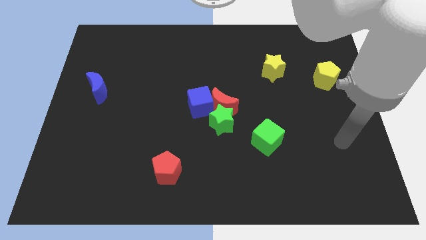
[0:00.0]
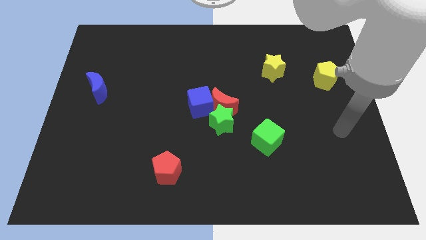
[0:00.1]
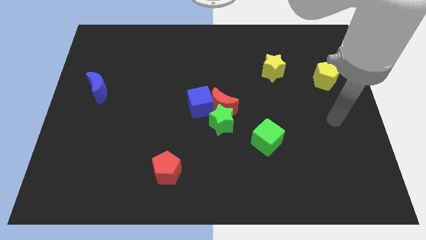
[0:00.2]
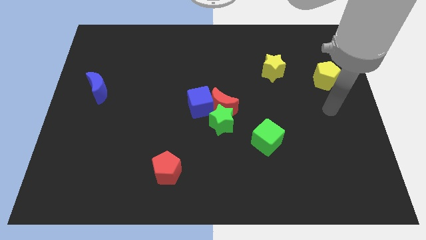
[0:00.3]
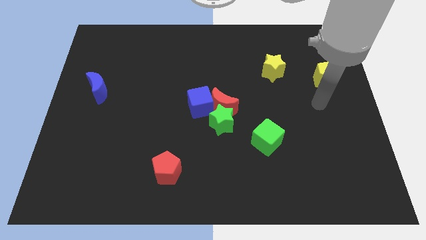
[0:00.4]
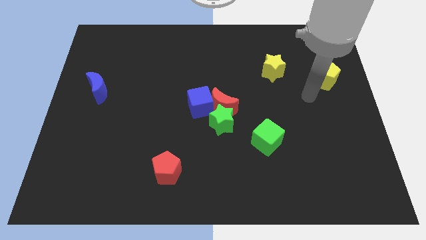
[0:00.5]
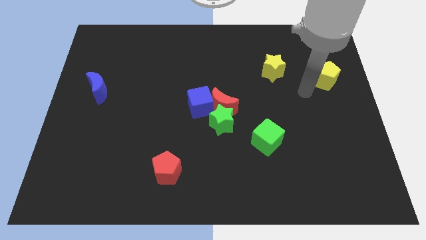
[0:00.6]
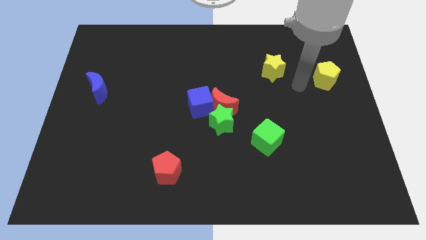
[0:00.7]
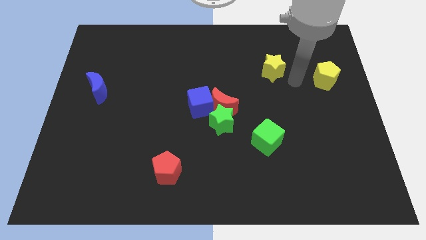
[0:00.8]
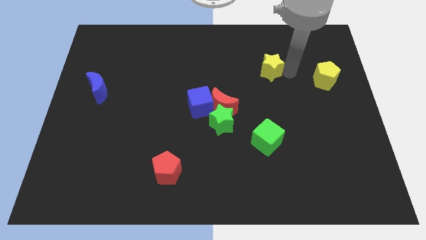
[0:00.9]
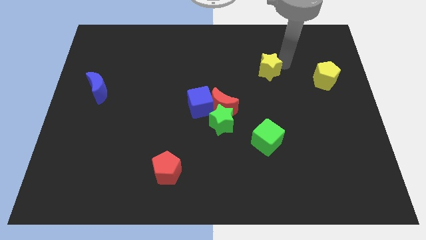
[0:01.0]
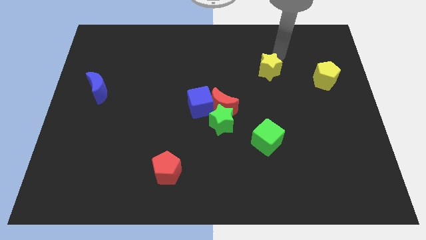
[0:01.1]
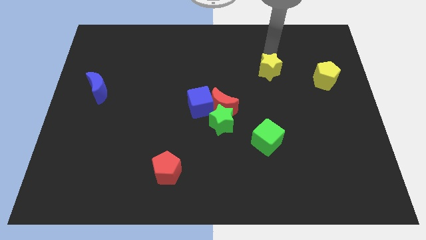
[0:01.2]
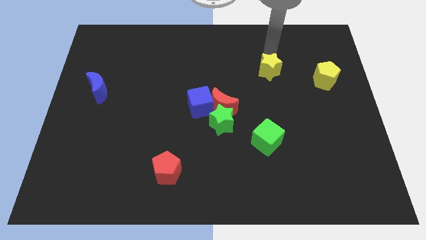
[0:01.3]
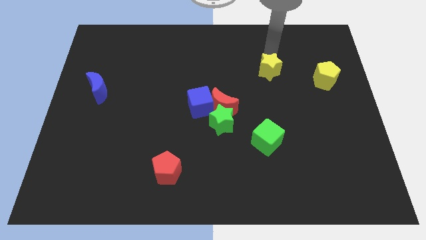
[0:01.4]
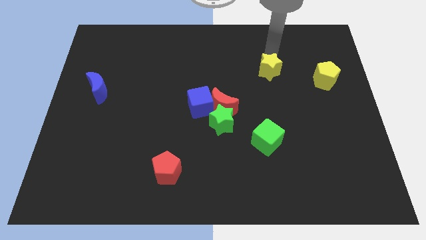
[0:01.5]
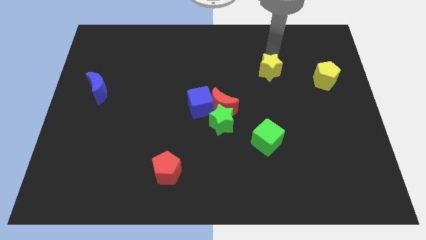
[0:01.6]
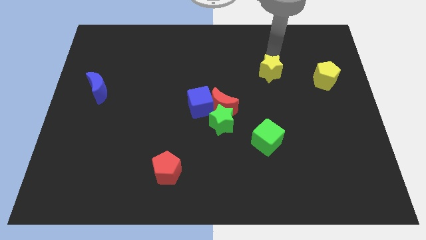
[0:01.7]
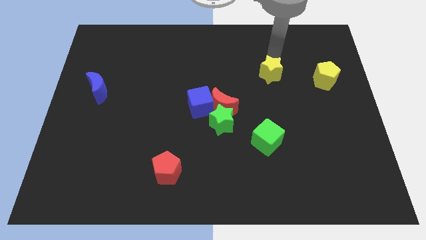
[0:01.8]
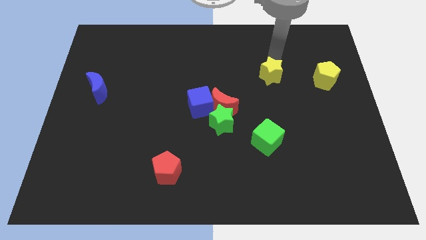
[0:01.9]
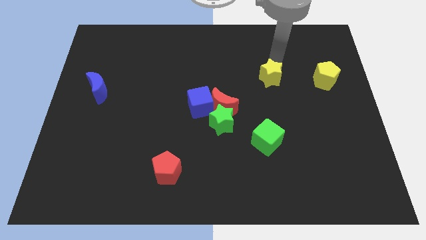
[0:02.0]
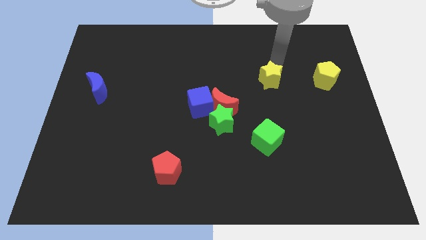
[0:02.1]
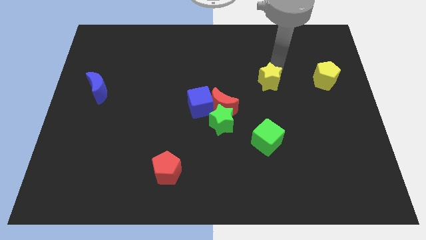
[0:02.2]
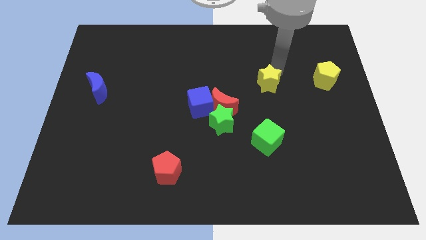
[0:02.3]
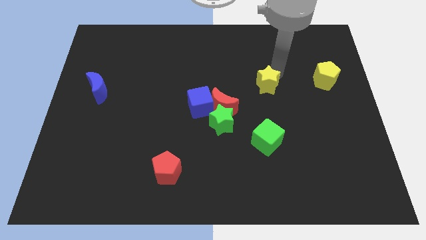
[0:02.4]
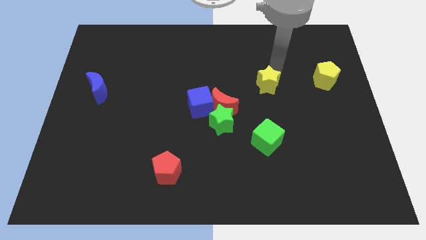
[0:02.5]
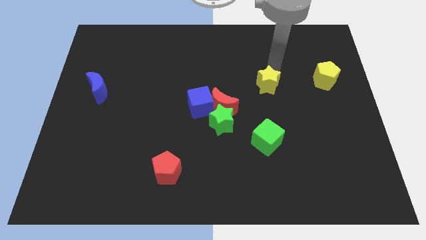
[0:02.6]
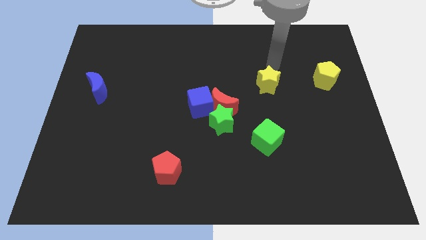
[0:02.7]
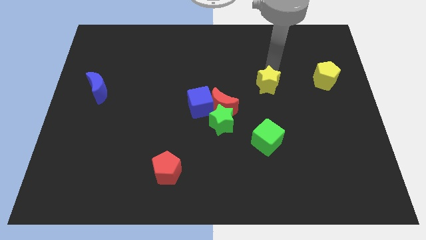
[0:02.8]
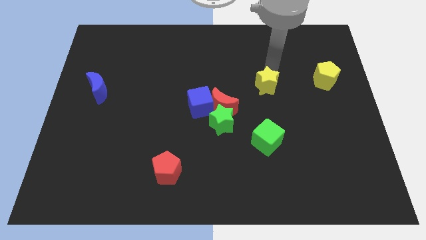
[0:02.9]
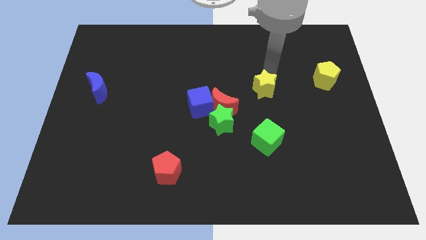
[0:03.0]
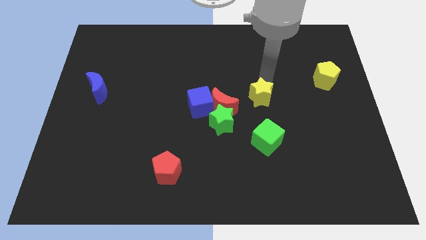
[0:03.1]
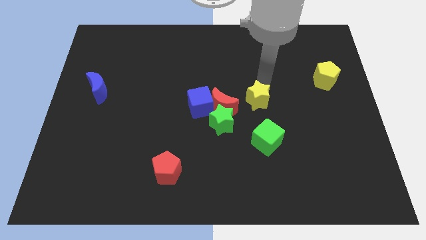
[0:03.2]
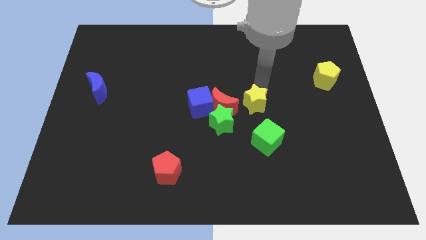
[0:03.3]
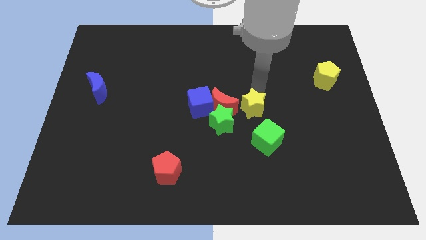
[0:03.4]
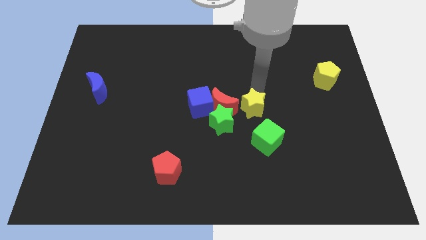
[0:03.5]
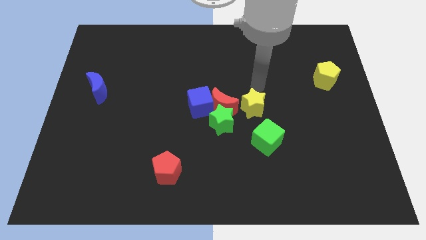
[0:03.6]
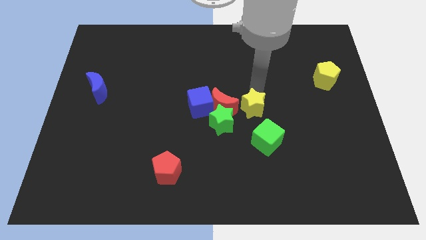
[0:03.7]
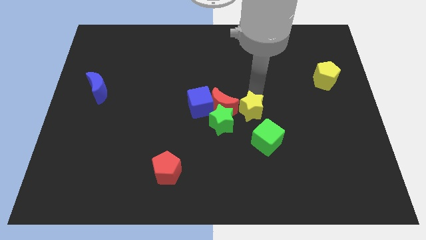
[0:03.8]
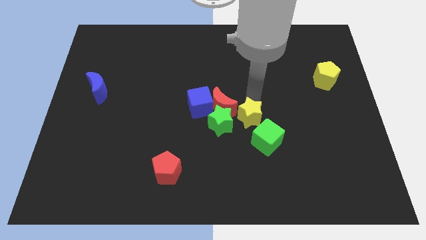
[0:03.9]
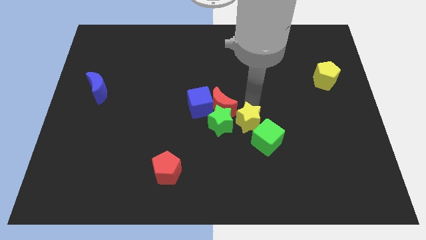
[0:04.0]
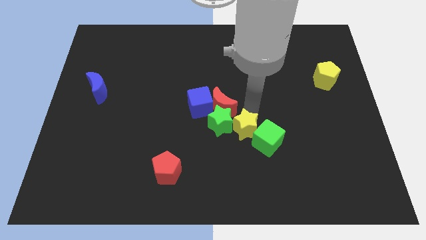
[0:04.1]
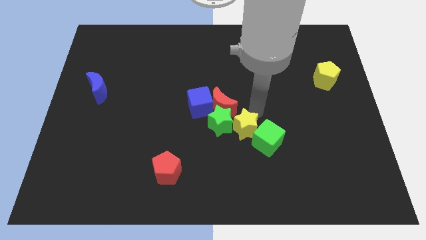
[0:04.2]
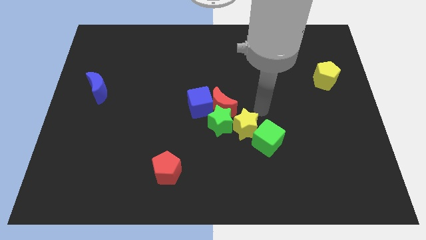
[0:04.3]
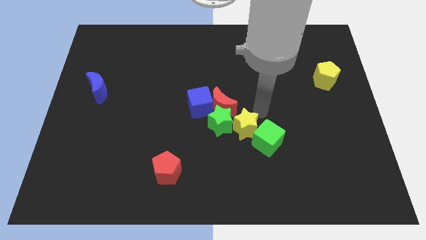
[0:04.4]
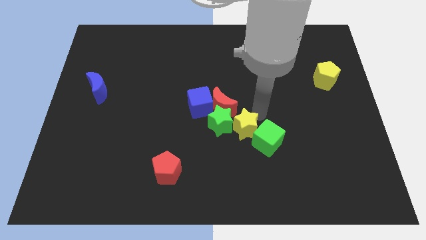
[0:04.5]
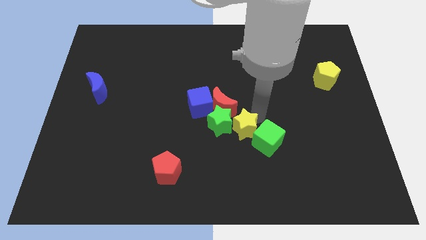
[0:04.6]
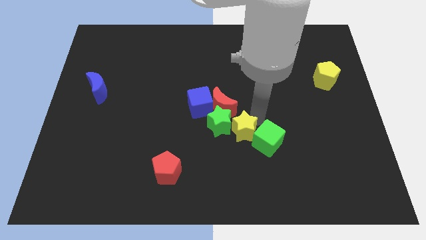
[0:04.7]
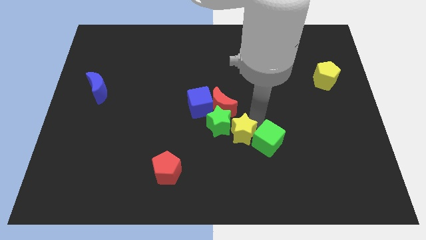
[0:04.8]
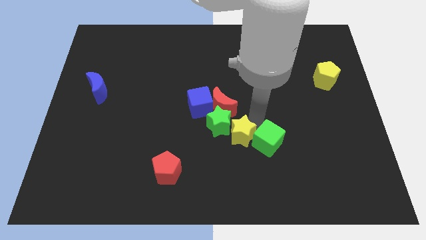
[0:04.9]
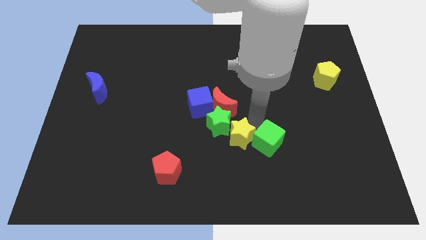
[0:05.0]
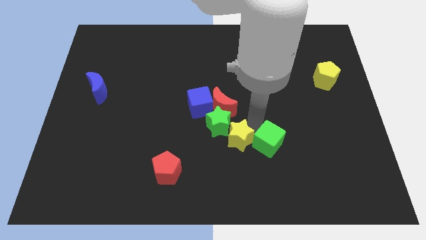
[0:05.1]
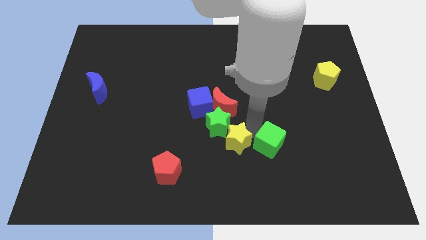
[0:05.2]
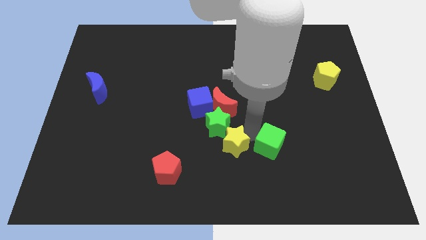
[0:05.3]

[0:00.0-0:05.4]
slide the yellow star downwards and left diagonally

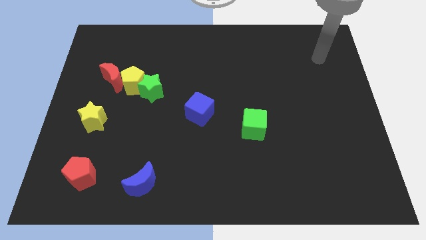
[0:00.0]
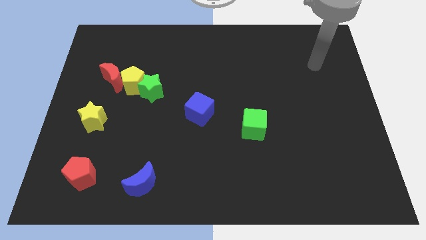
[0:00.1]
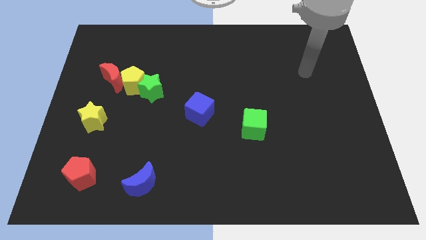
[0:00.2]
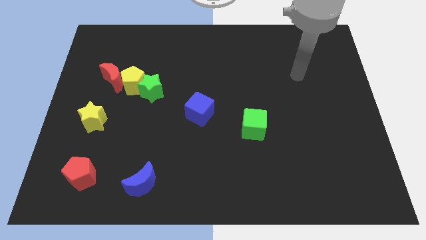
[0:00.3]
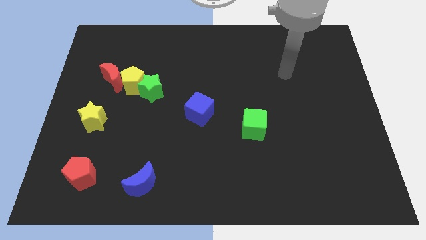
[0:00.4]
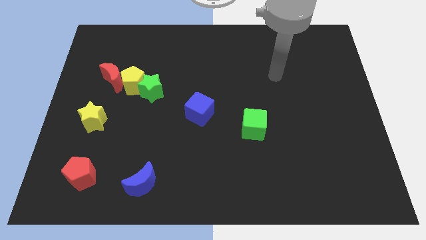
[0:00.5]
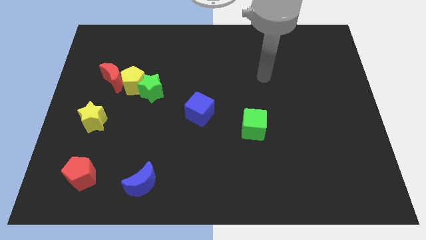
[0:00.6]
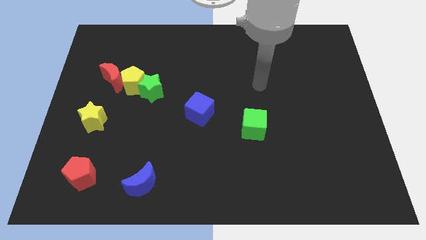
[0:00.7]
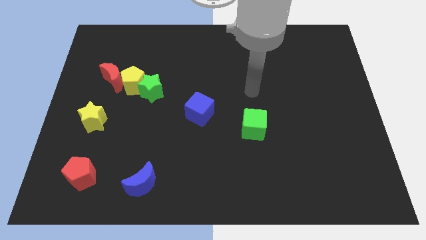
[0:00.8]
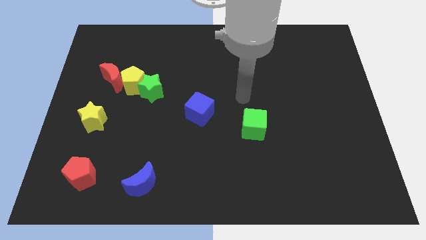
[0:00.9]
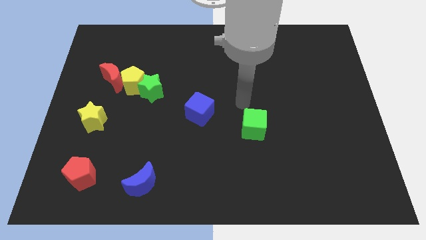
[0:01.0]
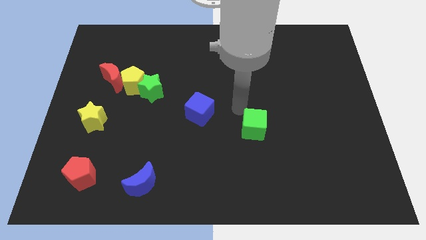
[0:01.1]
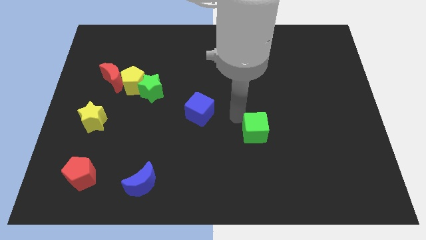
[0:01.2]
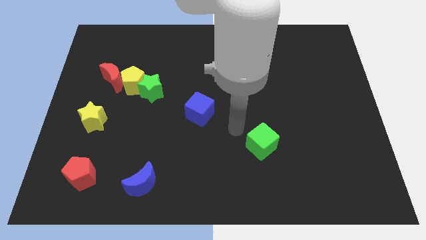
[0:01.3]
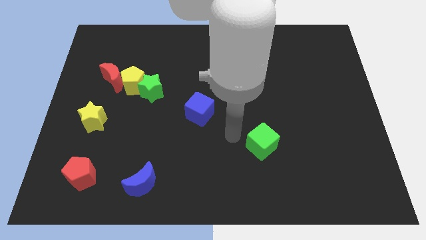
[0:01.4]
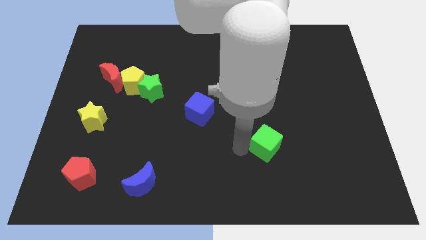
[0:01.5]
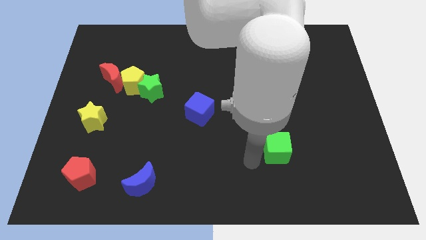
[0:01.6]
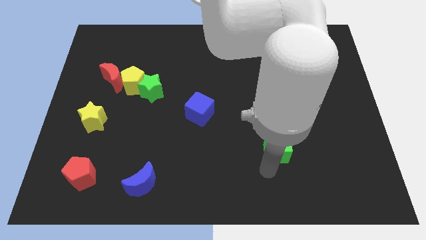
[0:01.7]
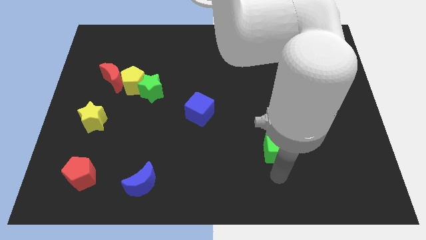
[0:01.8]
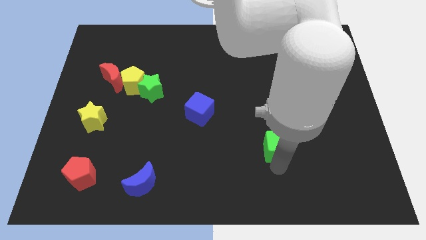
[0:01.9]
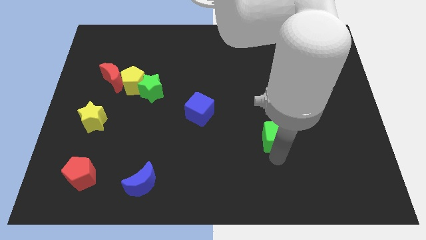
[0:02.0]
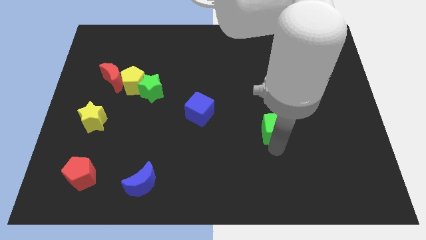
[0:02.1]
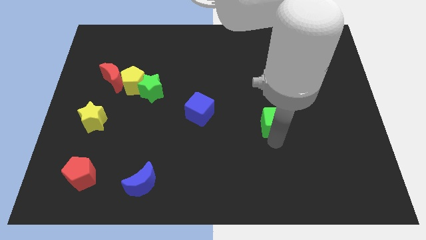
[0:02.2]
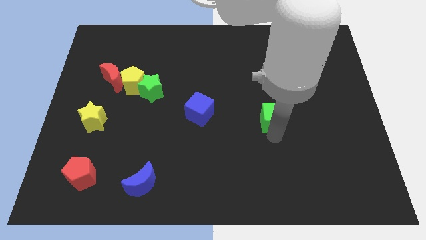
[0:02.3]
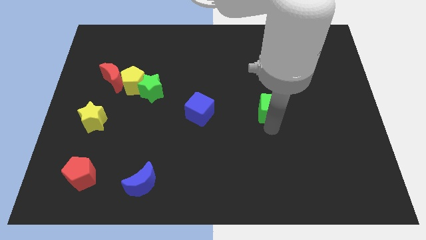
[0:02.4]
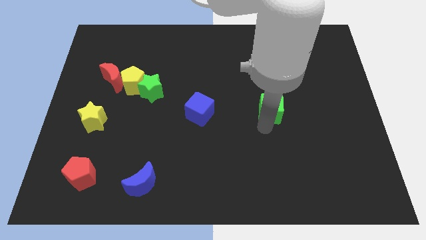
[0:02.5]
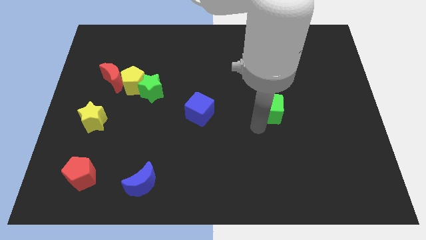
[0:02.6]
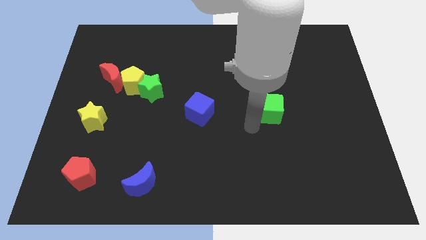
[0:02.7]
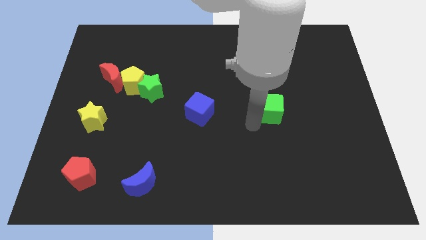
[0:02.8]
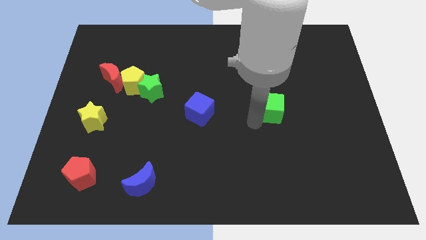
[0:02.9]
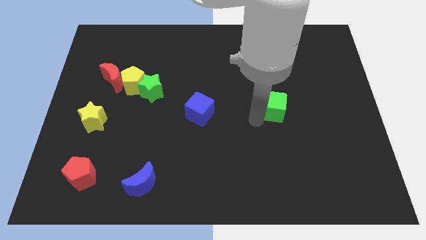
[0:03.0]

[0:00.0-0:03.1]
slide the green cube upwards and then to the right a little
